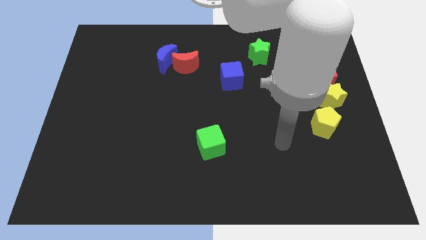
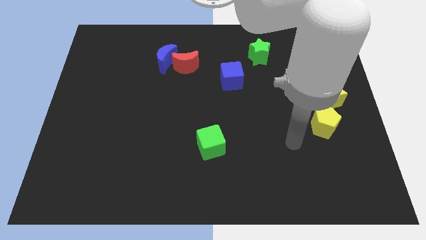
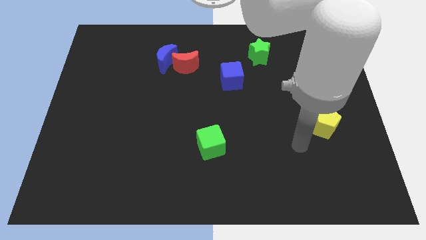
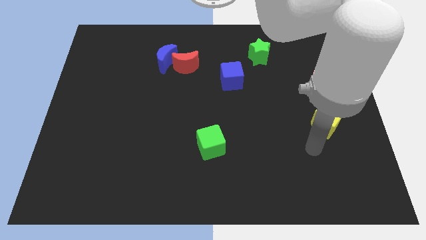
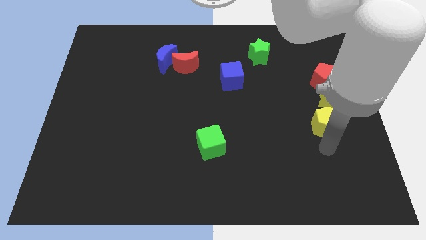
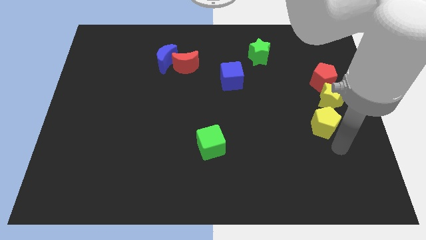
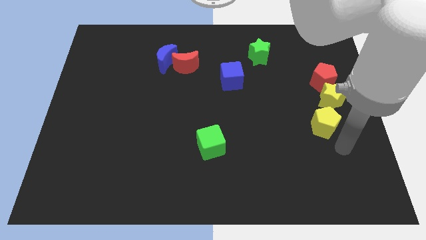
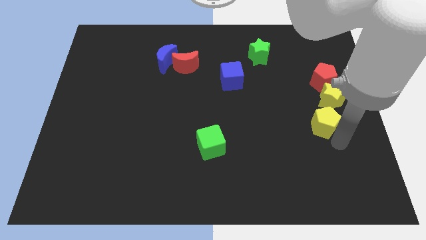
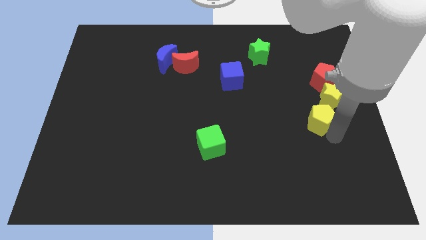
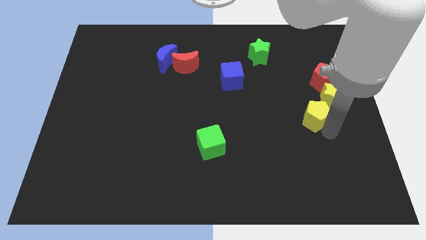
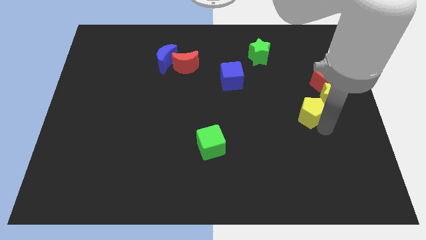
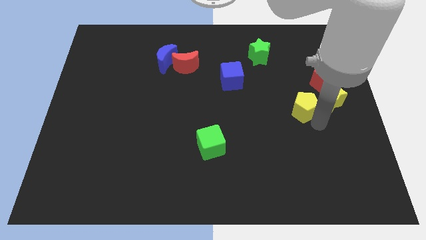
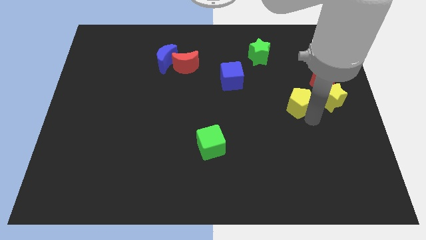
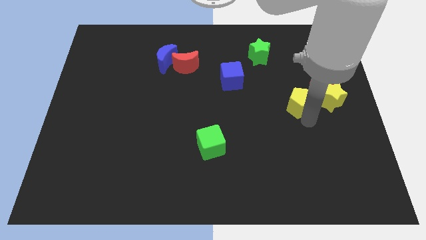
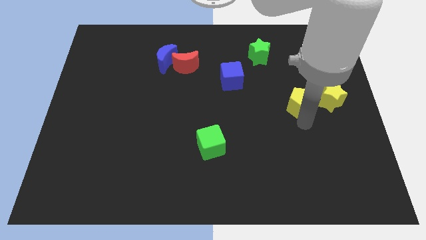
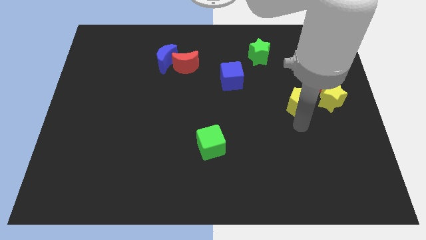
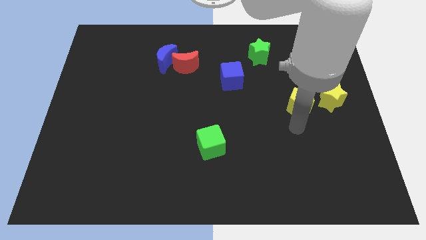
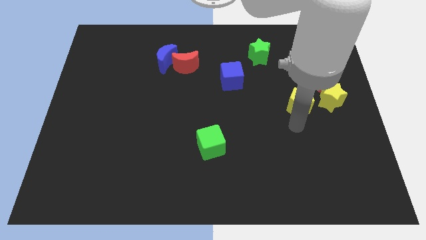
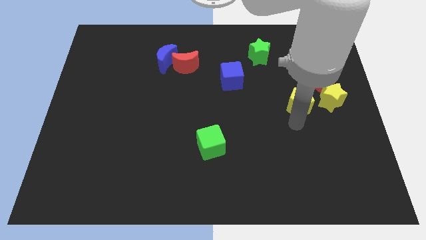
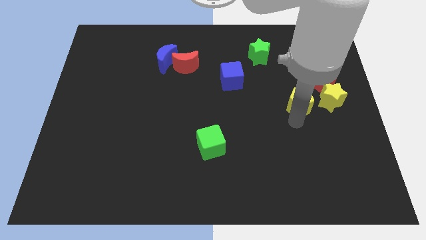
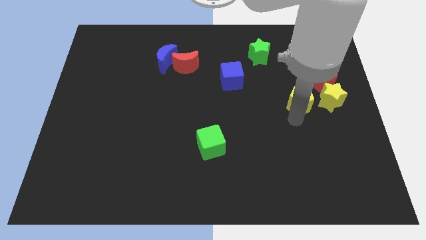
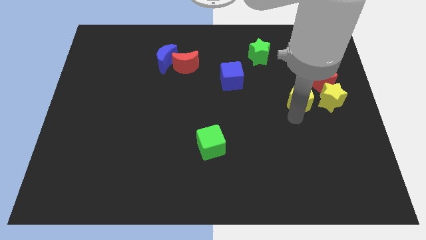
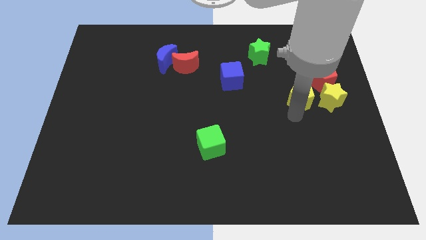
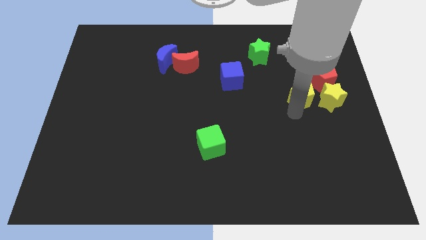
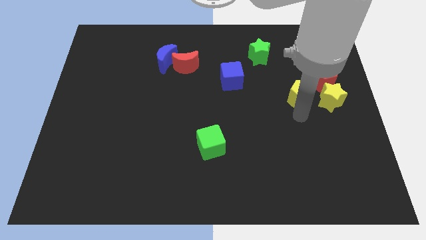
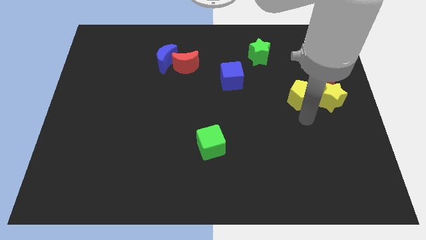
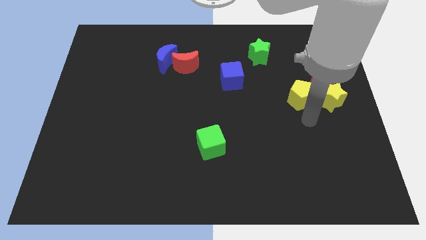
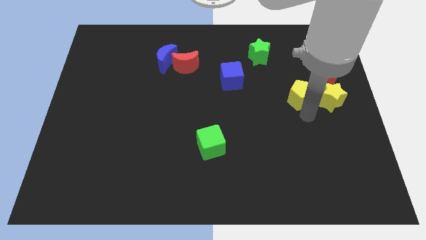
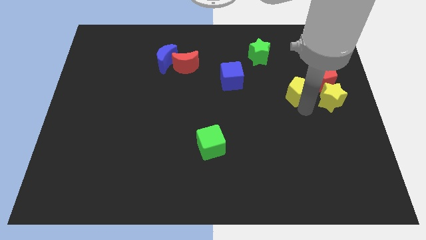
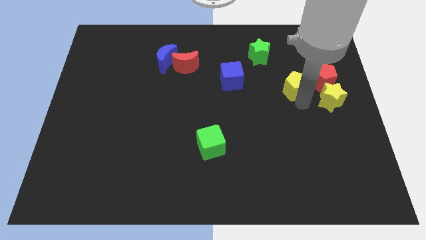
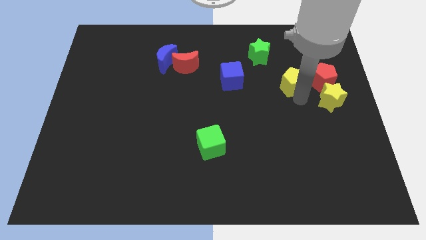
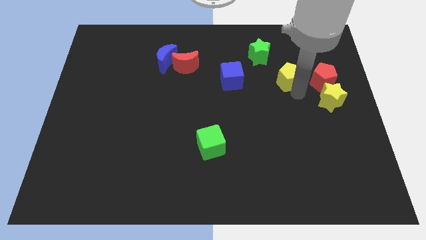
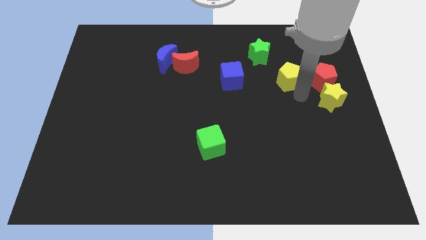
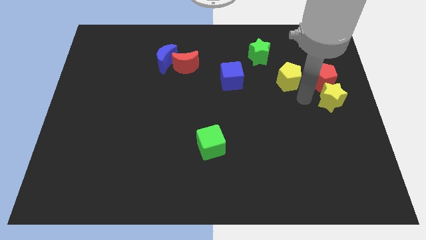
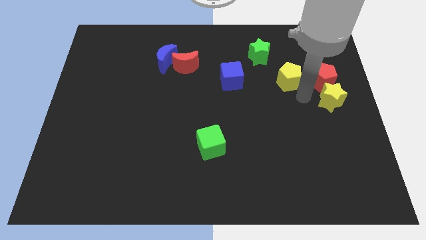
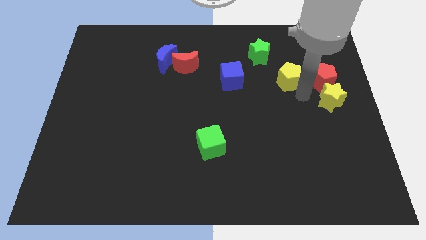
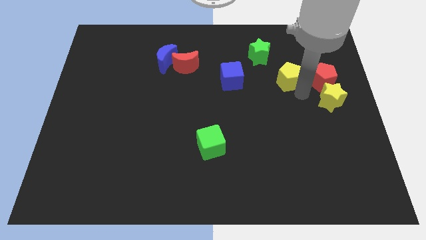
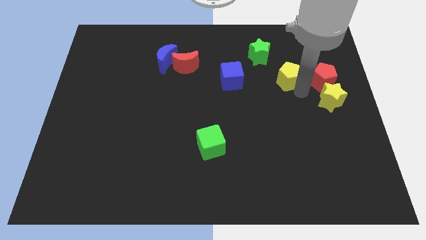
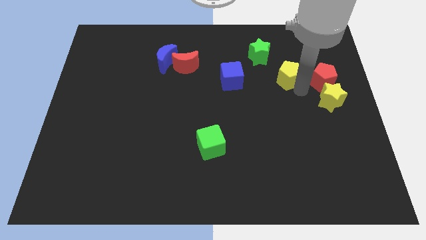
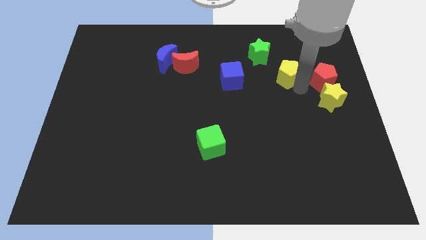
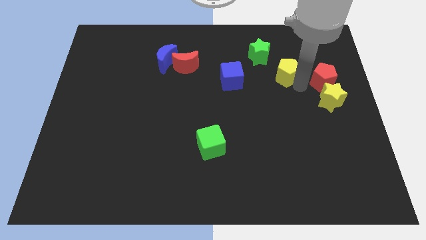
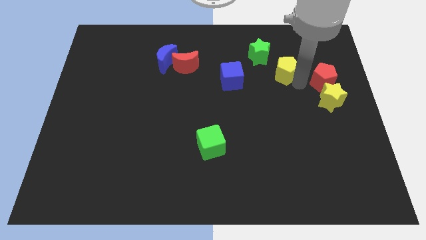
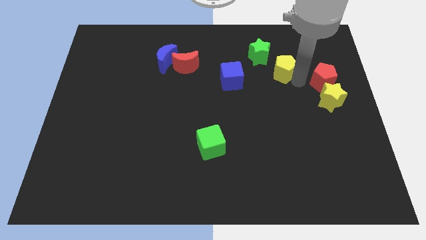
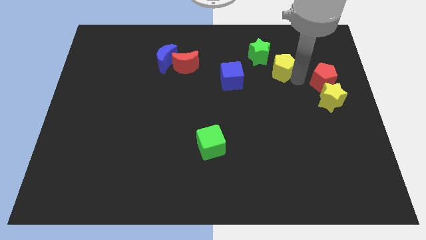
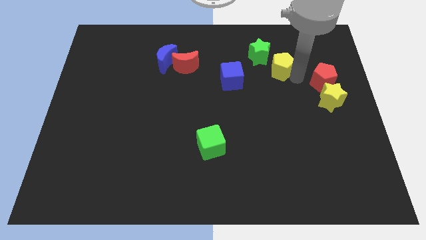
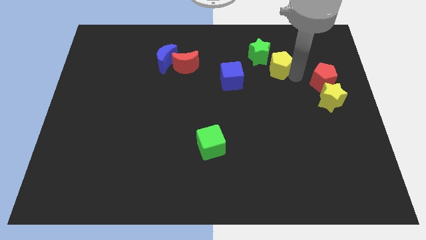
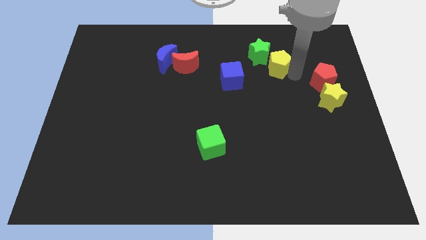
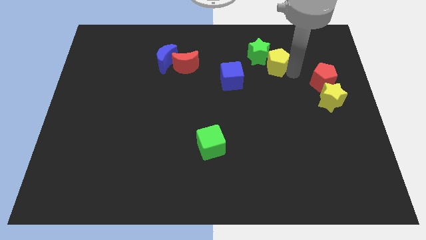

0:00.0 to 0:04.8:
move the yellow pentagon towards the green star

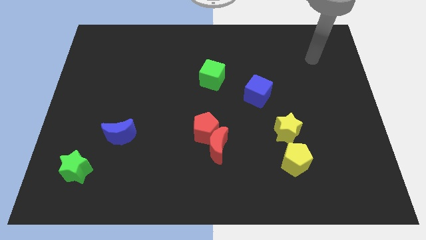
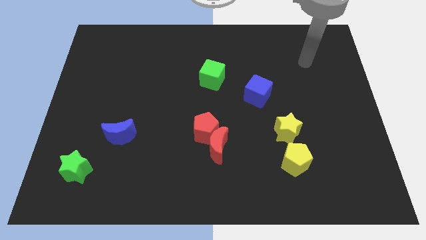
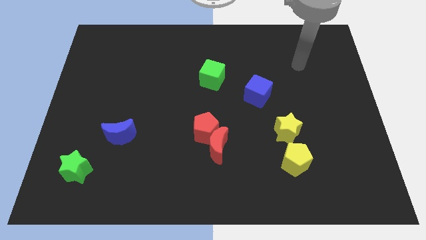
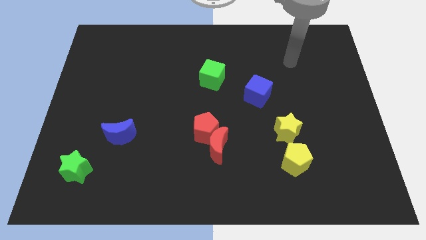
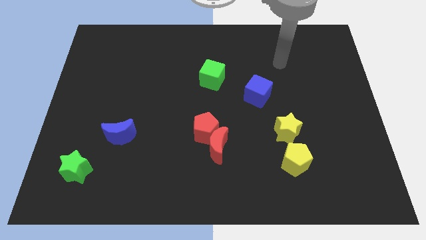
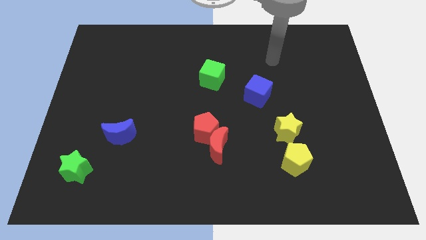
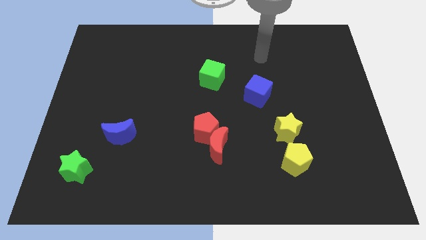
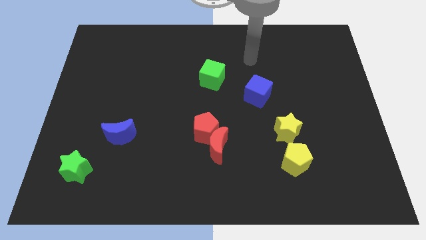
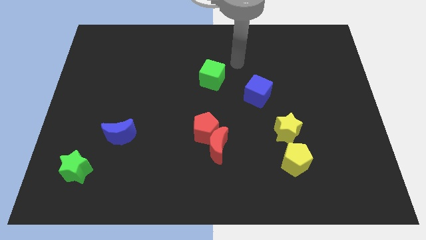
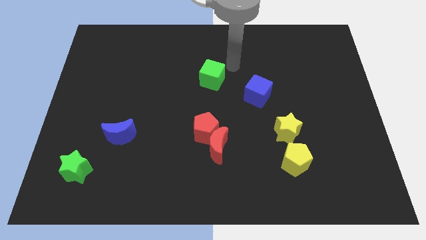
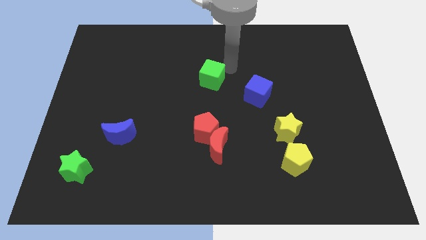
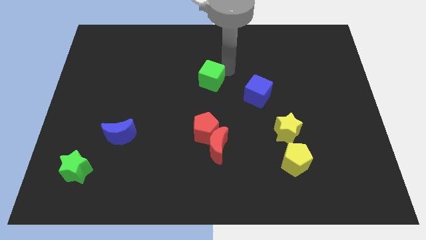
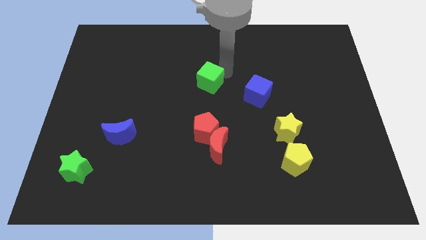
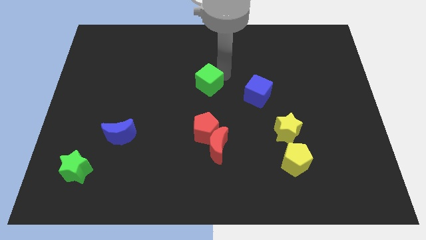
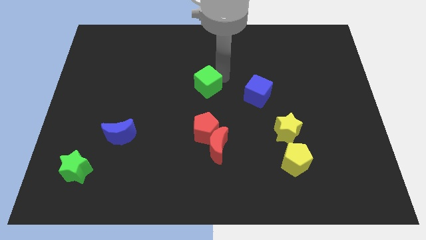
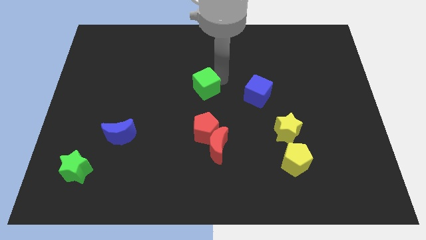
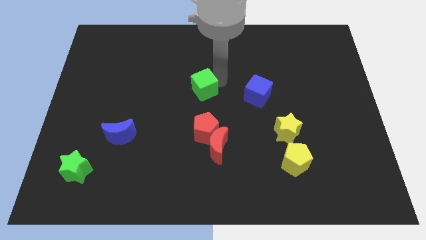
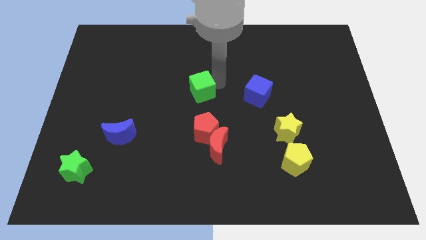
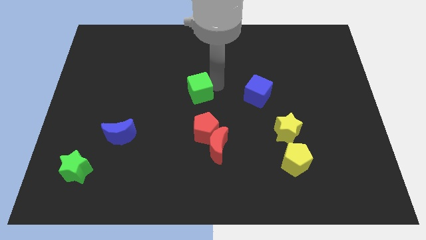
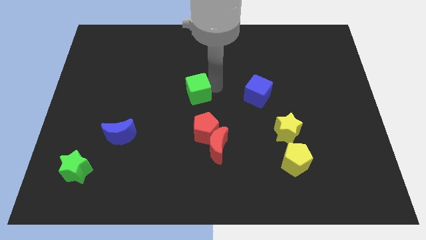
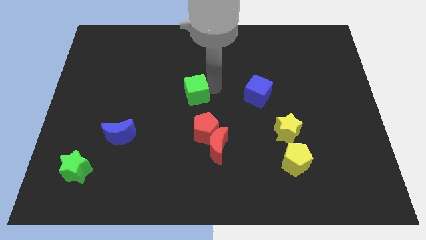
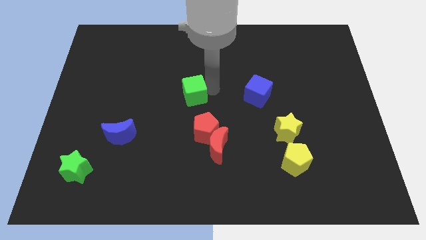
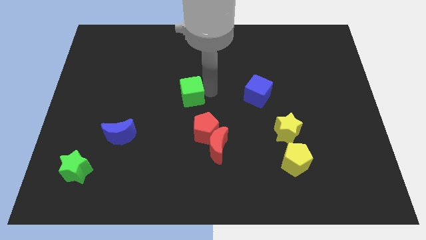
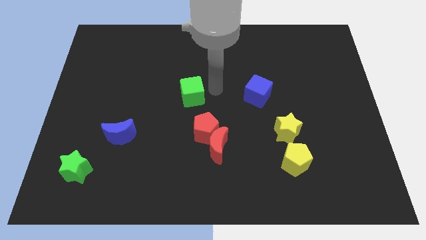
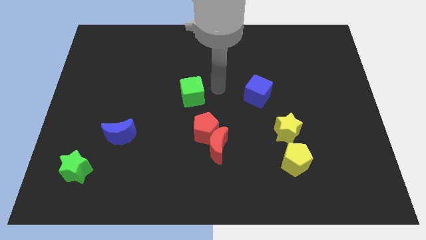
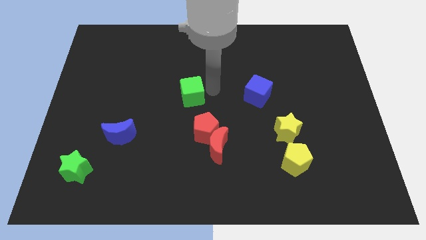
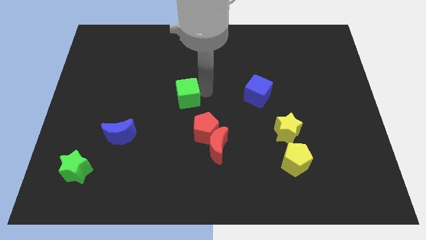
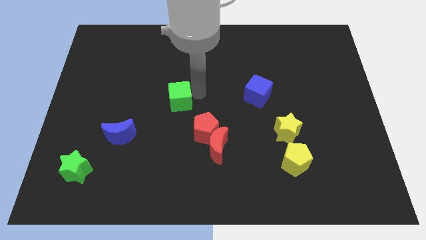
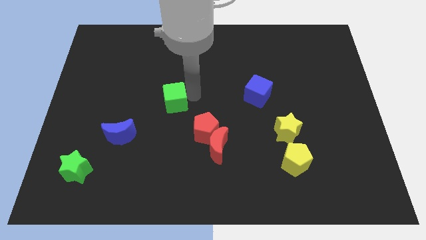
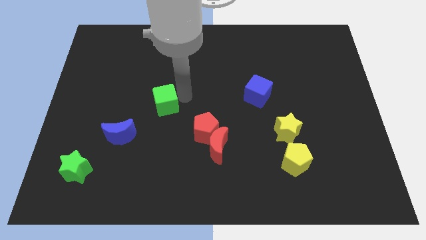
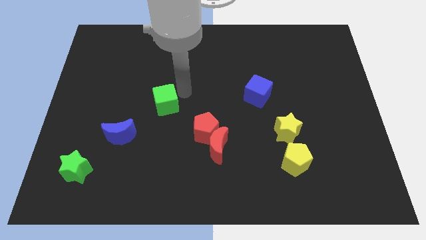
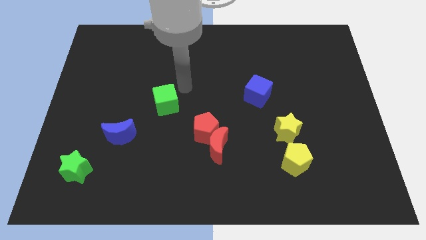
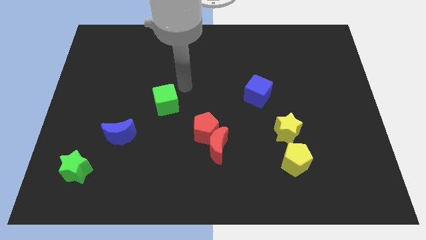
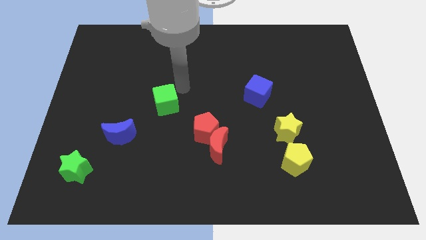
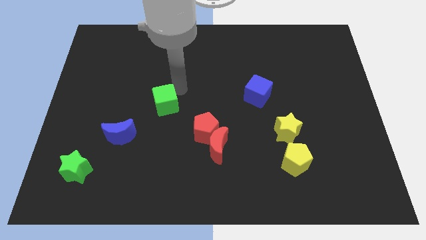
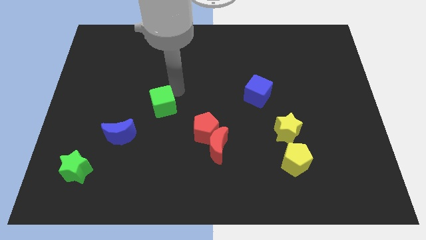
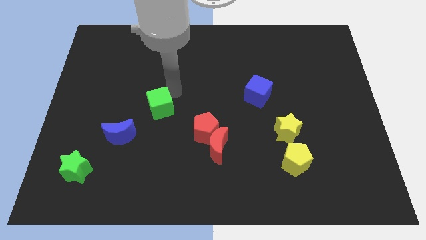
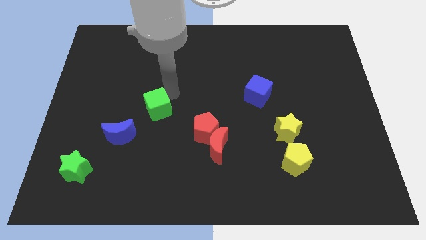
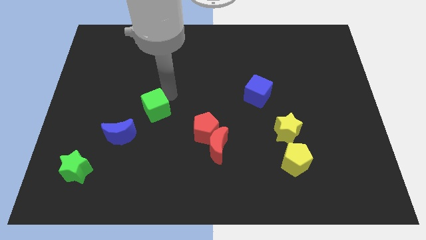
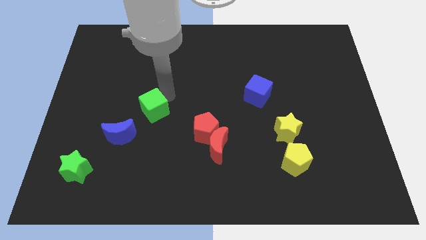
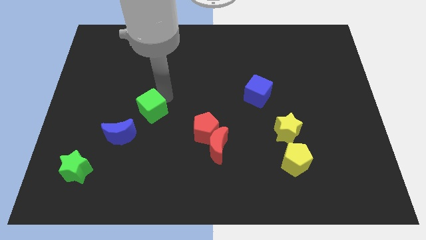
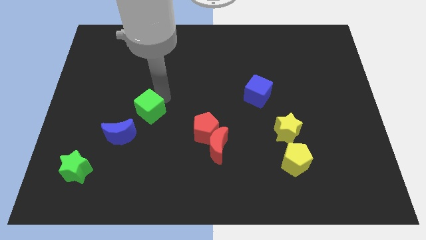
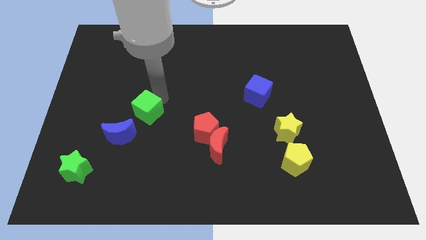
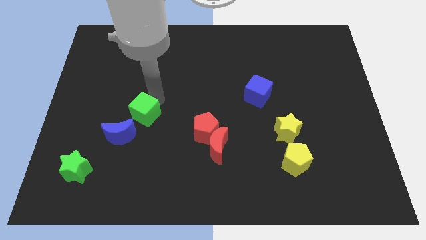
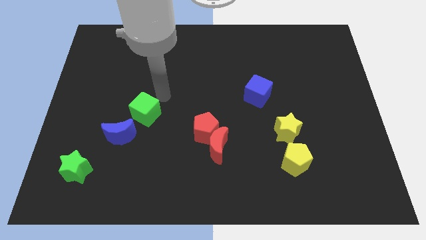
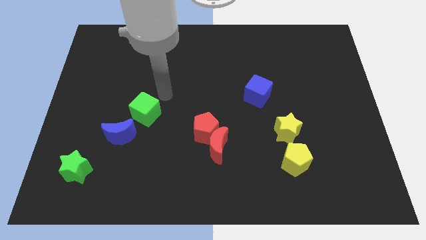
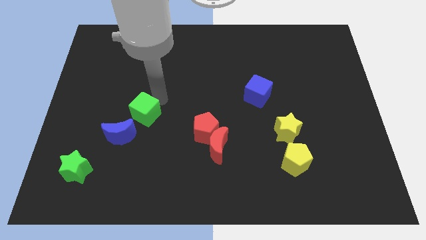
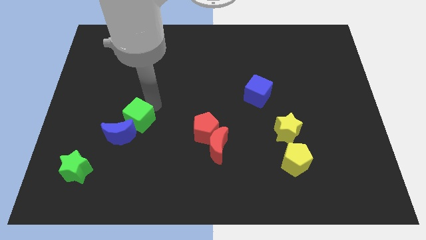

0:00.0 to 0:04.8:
move the green cube close to the blue moon
